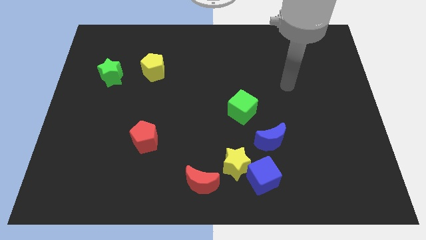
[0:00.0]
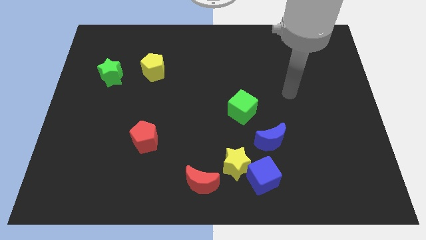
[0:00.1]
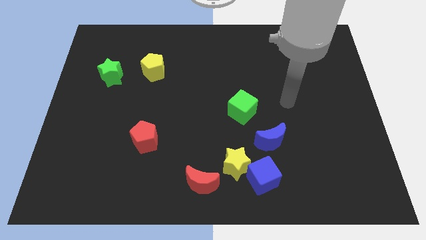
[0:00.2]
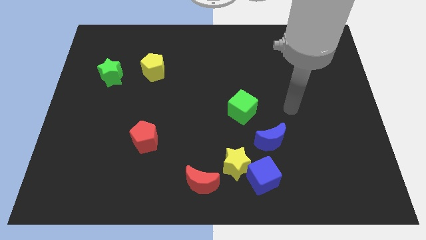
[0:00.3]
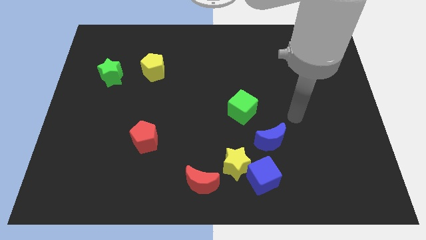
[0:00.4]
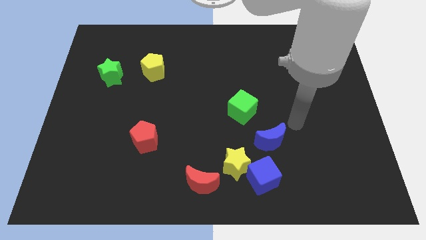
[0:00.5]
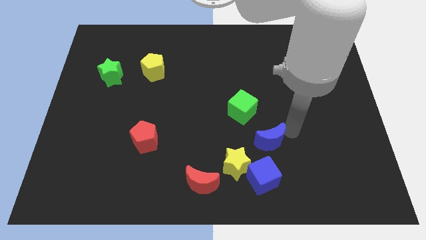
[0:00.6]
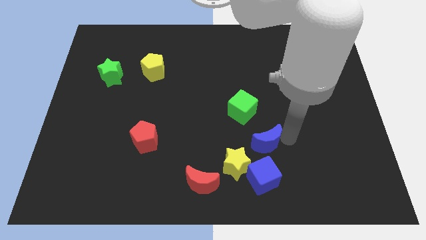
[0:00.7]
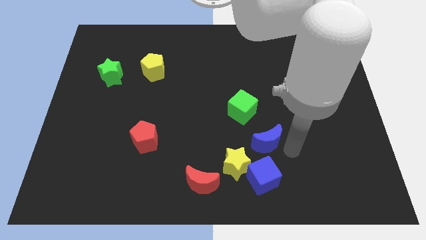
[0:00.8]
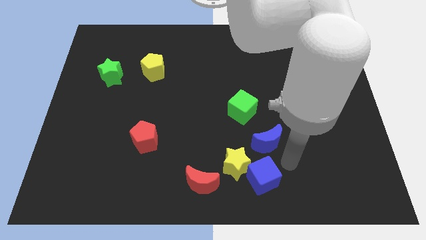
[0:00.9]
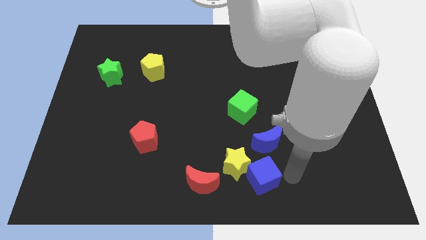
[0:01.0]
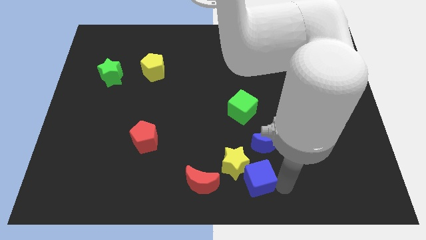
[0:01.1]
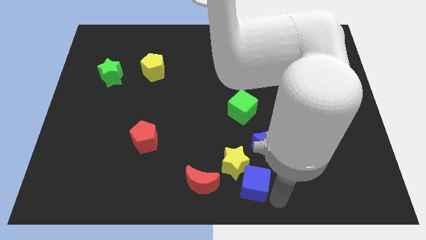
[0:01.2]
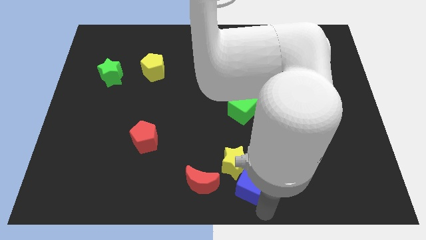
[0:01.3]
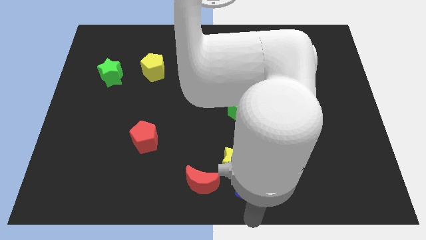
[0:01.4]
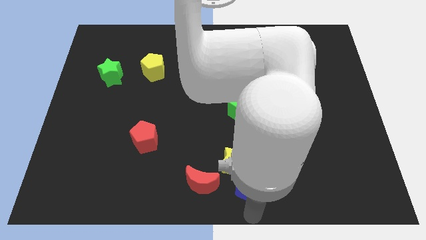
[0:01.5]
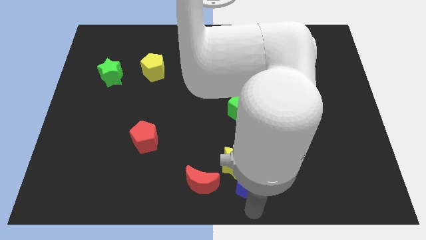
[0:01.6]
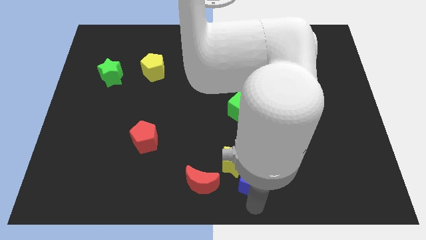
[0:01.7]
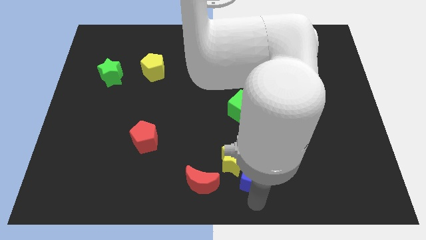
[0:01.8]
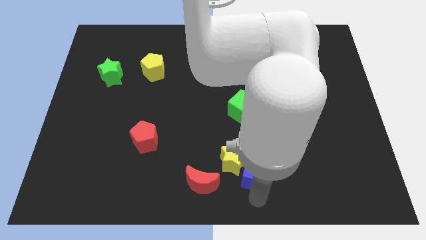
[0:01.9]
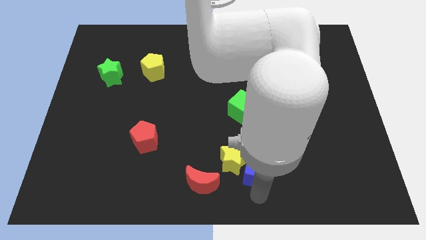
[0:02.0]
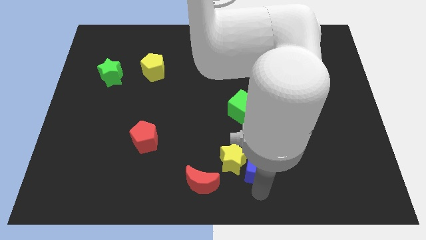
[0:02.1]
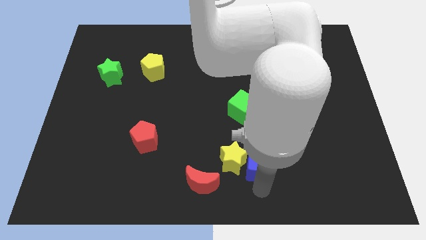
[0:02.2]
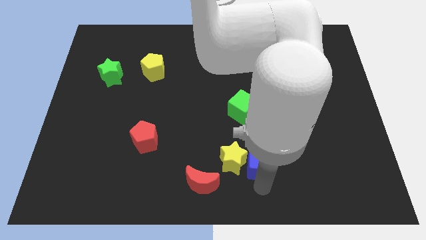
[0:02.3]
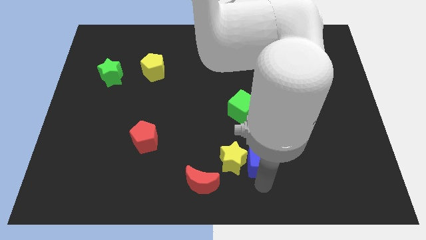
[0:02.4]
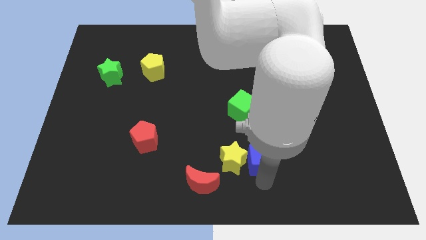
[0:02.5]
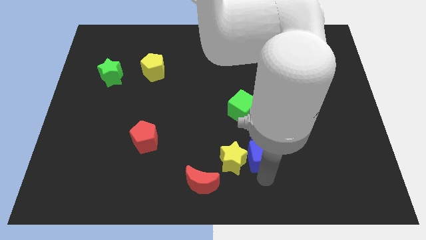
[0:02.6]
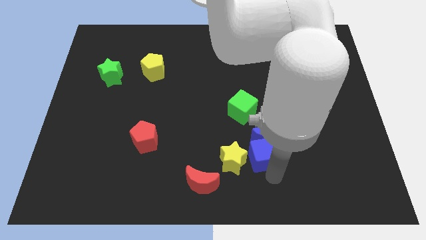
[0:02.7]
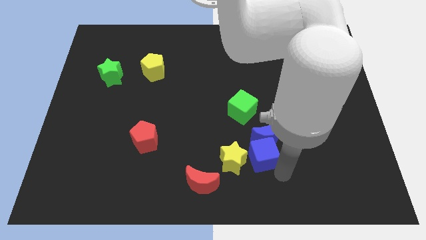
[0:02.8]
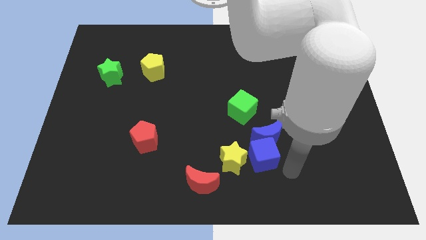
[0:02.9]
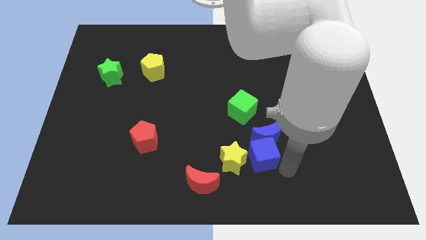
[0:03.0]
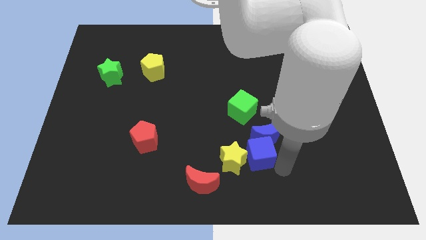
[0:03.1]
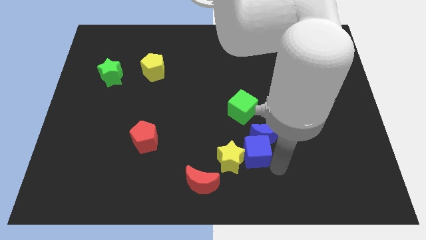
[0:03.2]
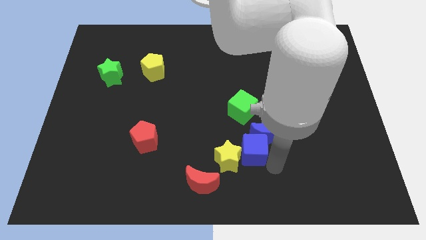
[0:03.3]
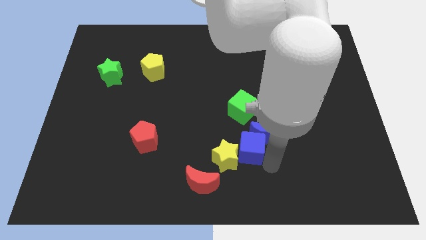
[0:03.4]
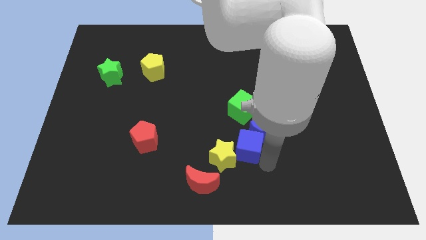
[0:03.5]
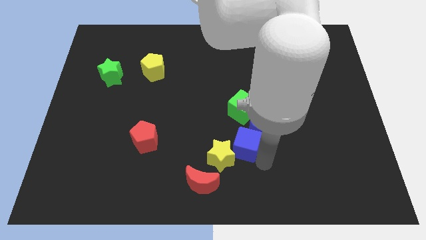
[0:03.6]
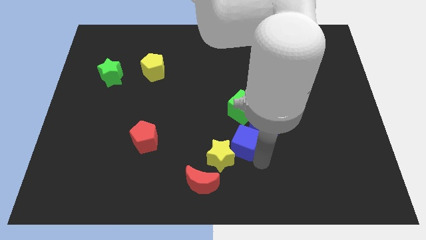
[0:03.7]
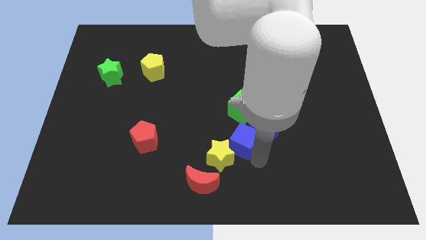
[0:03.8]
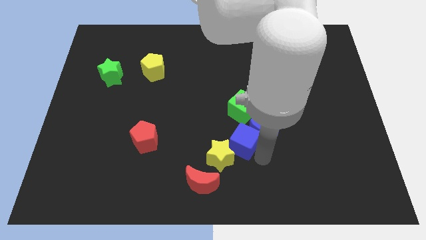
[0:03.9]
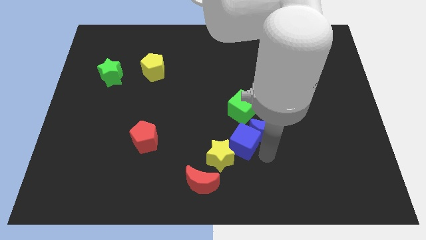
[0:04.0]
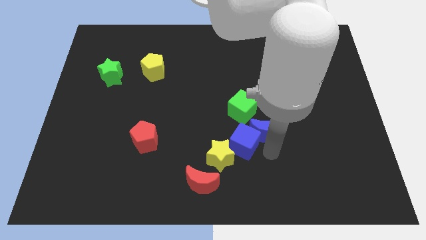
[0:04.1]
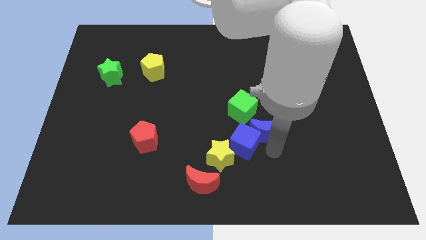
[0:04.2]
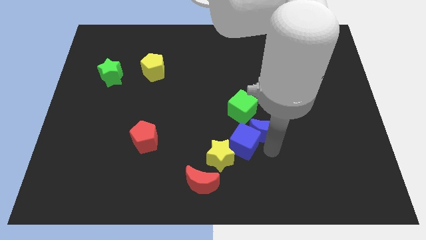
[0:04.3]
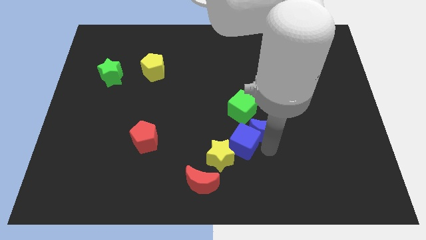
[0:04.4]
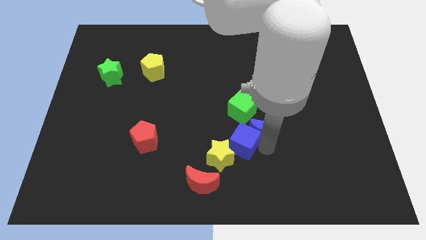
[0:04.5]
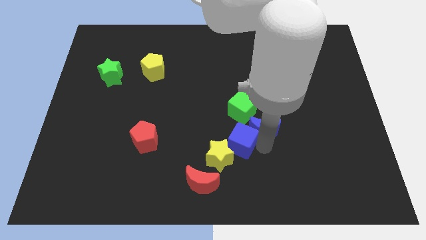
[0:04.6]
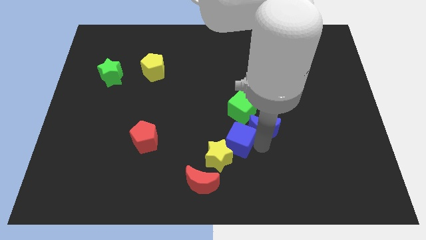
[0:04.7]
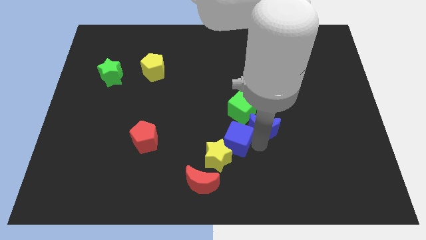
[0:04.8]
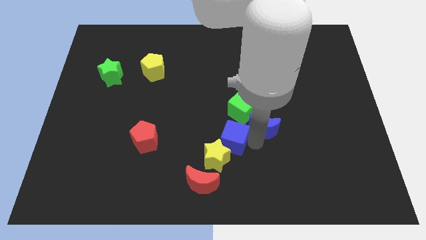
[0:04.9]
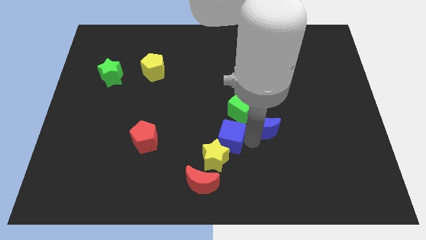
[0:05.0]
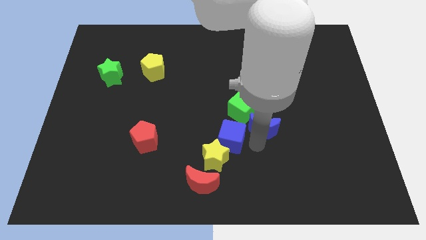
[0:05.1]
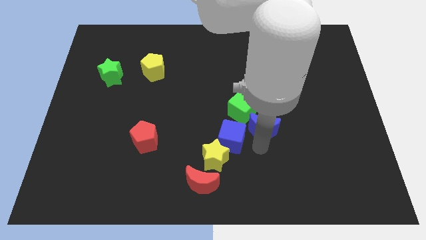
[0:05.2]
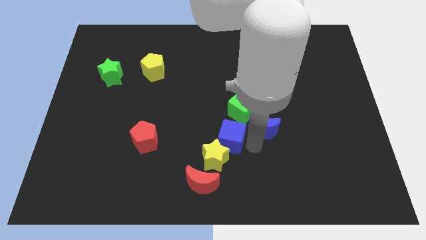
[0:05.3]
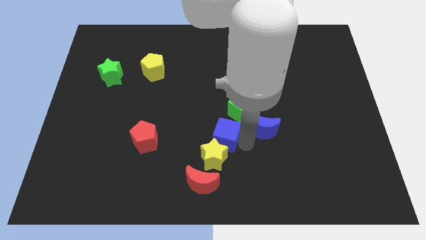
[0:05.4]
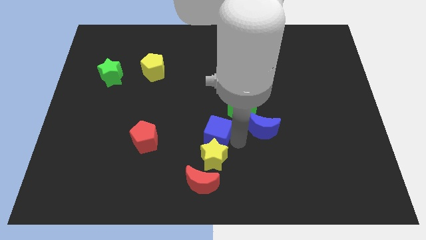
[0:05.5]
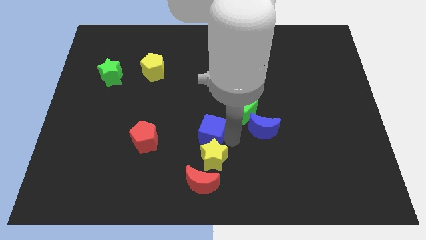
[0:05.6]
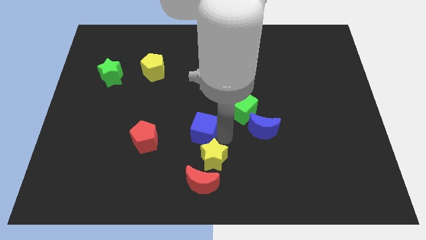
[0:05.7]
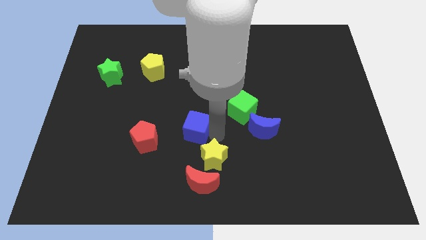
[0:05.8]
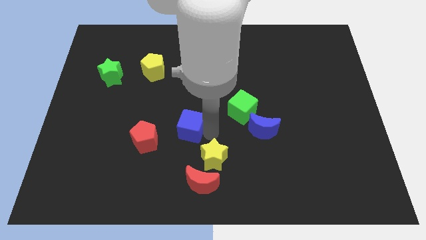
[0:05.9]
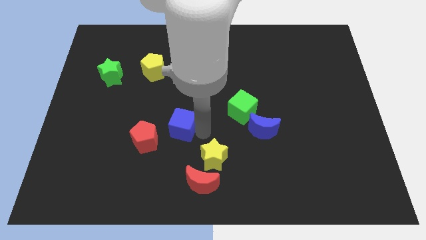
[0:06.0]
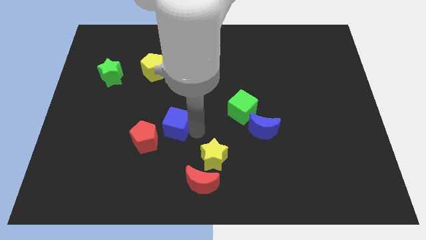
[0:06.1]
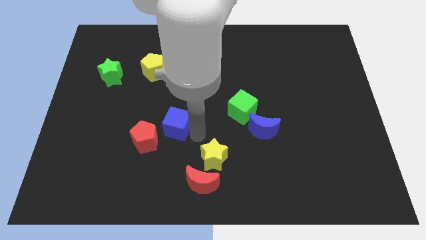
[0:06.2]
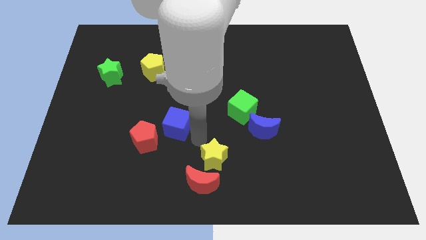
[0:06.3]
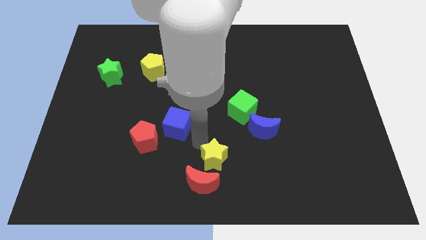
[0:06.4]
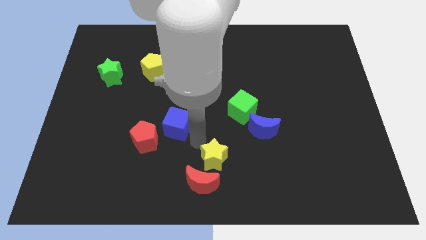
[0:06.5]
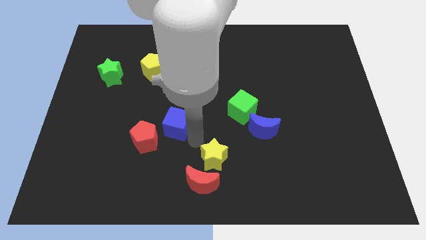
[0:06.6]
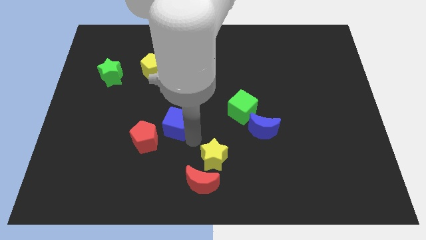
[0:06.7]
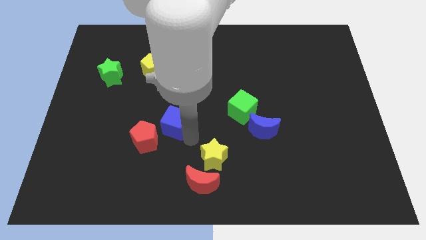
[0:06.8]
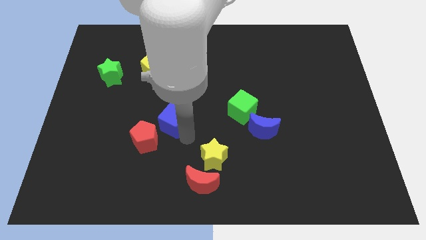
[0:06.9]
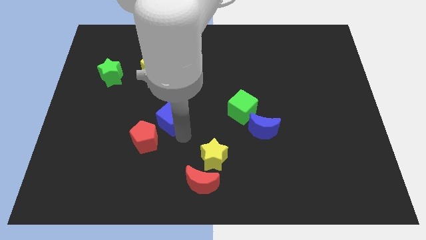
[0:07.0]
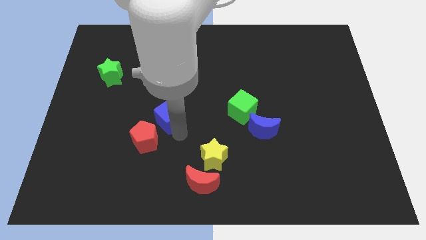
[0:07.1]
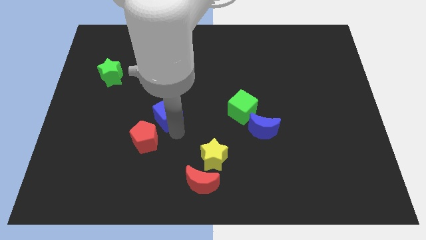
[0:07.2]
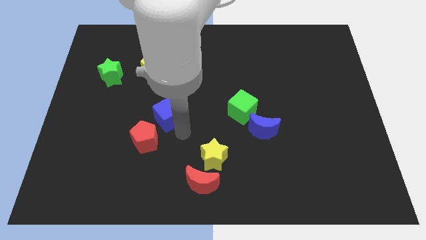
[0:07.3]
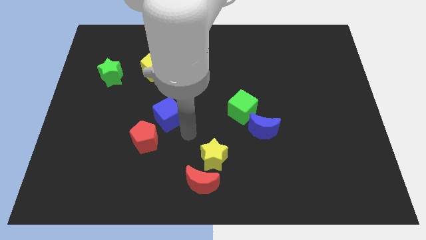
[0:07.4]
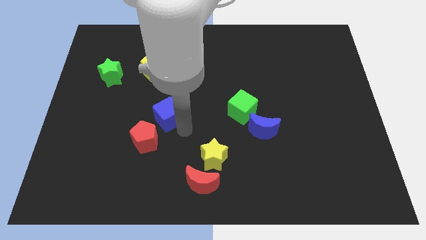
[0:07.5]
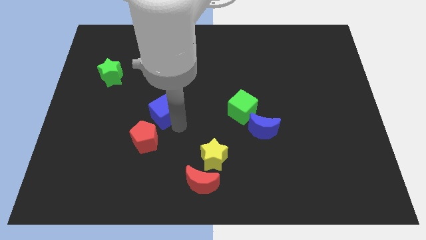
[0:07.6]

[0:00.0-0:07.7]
move the blue cube to the bottom side of the yellow pentagon
